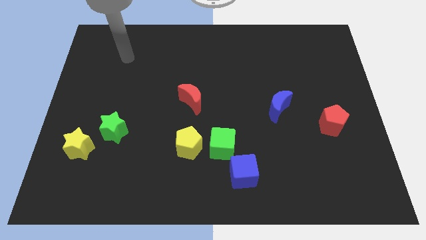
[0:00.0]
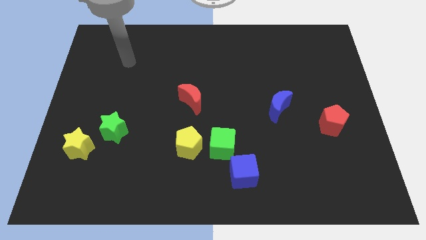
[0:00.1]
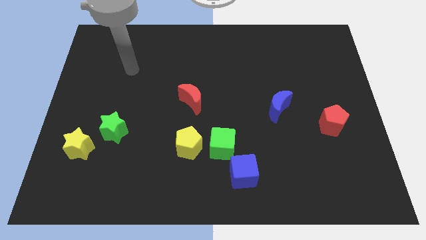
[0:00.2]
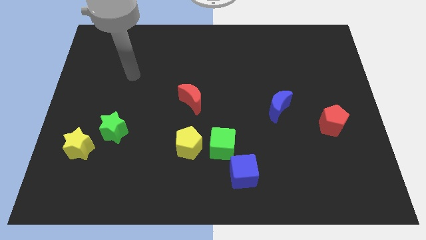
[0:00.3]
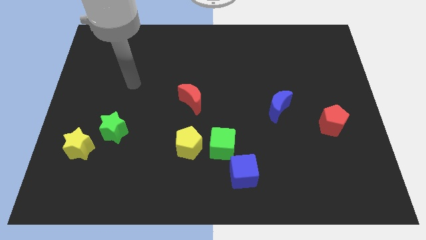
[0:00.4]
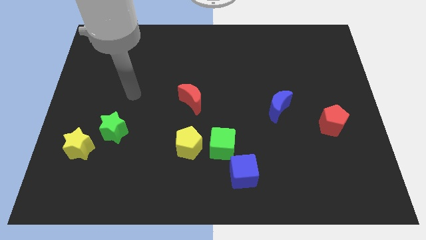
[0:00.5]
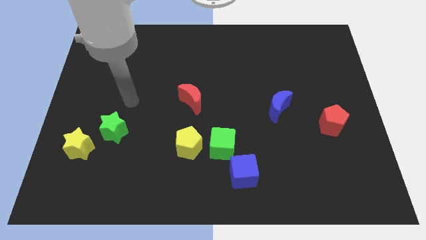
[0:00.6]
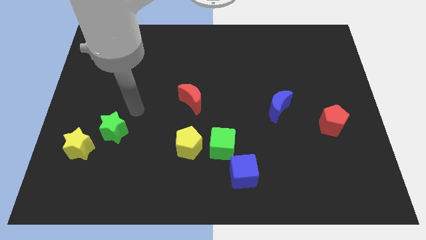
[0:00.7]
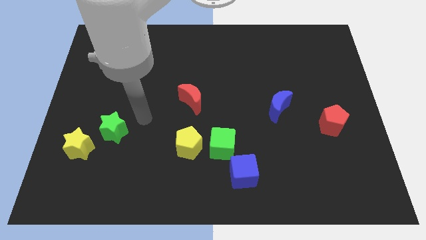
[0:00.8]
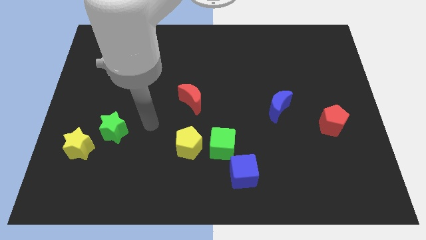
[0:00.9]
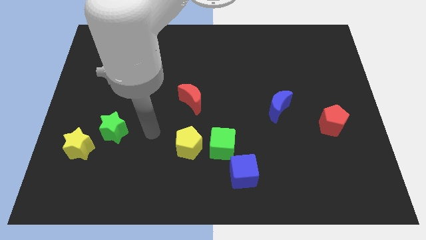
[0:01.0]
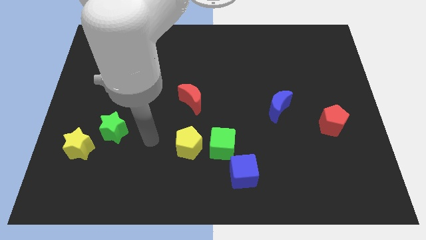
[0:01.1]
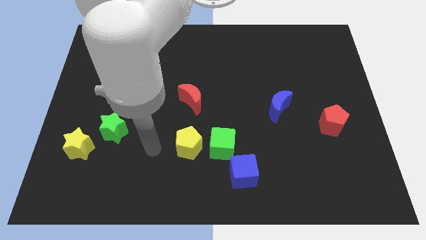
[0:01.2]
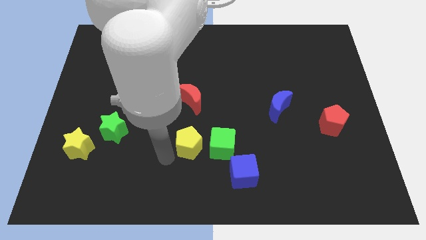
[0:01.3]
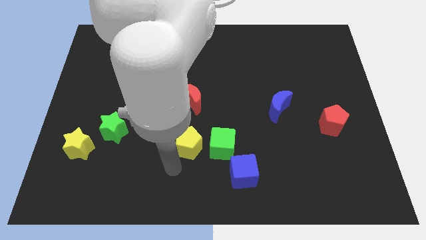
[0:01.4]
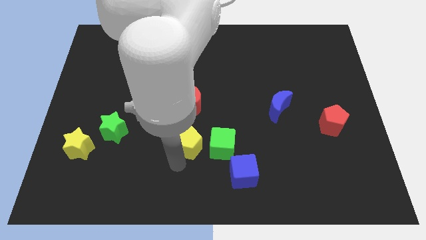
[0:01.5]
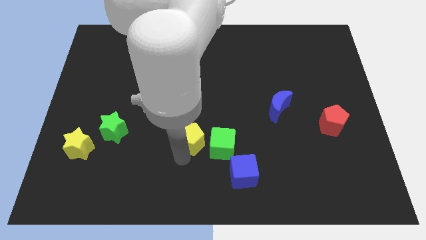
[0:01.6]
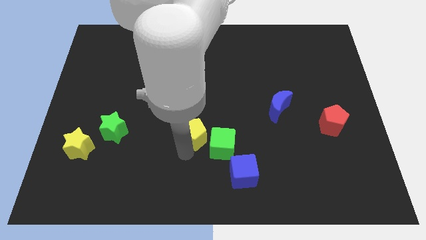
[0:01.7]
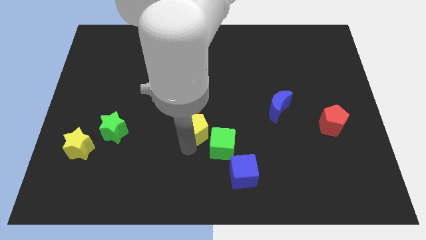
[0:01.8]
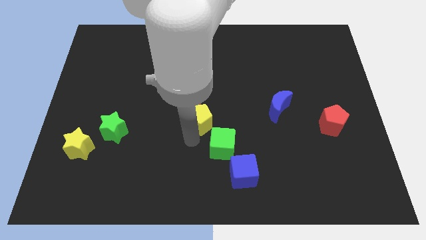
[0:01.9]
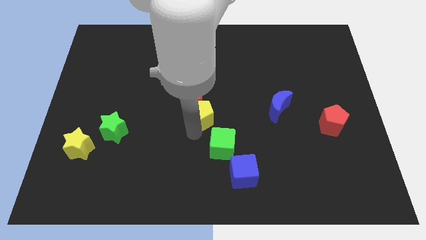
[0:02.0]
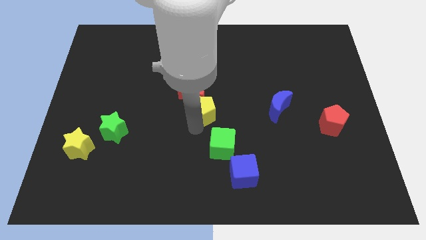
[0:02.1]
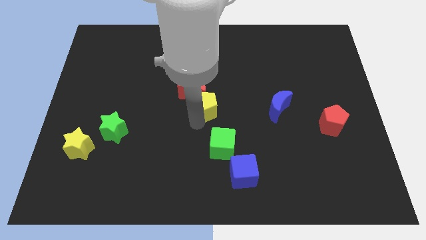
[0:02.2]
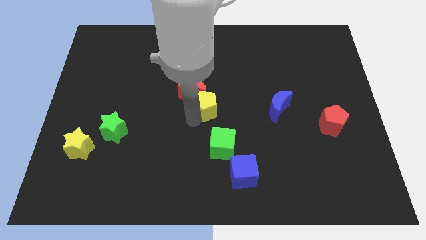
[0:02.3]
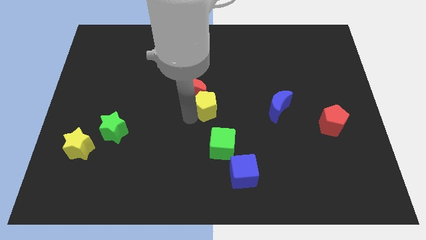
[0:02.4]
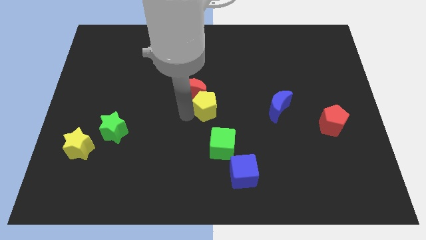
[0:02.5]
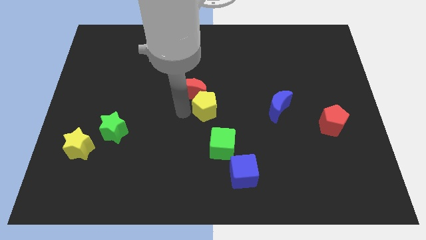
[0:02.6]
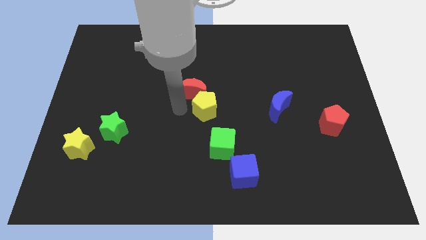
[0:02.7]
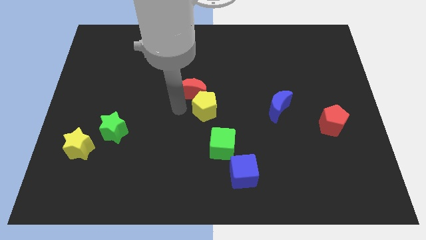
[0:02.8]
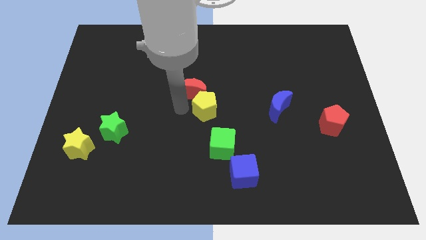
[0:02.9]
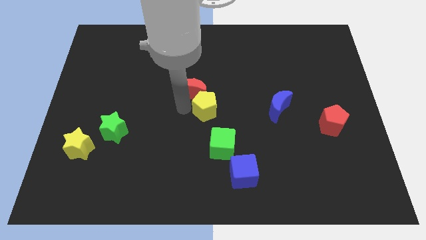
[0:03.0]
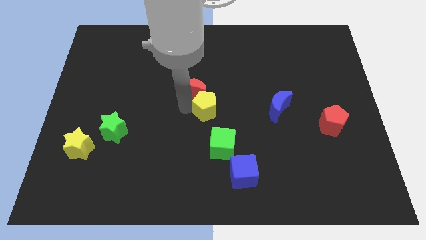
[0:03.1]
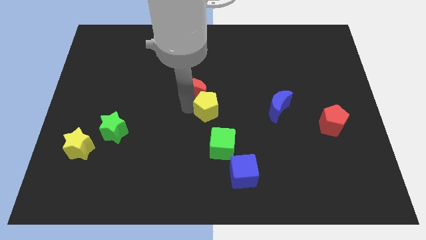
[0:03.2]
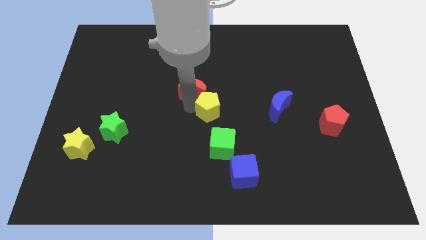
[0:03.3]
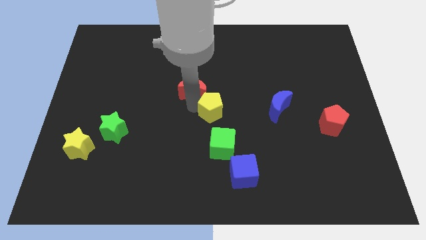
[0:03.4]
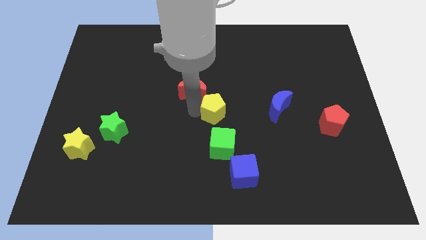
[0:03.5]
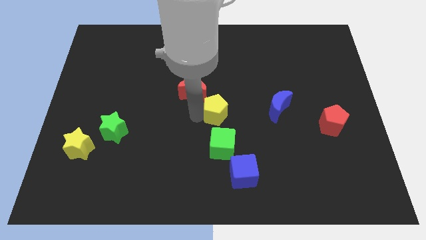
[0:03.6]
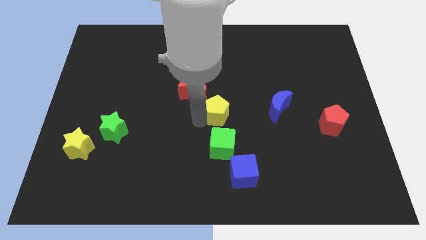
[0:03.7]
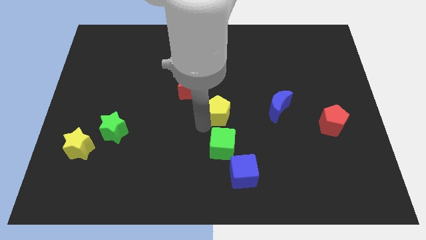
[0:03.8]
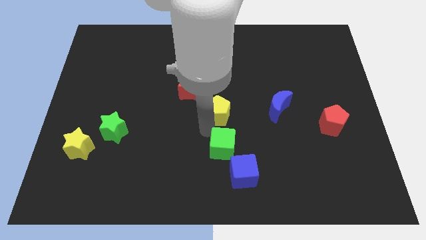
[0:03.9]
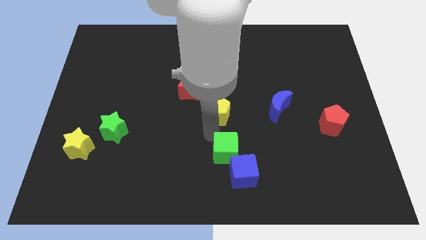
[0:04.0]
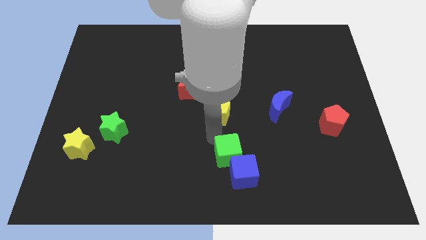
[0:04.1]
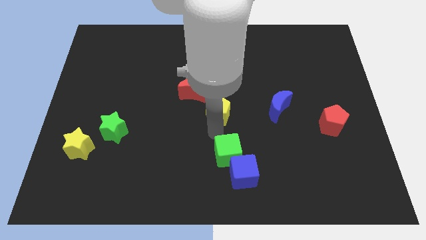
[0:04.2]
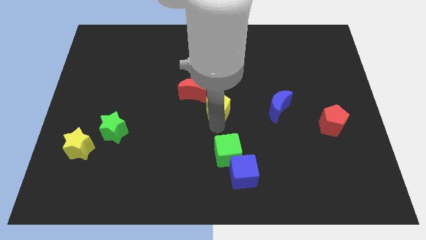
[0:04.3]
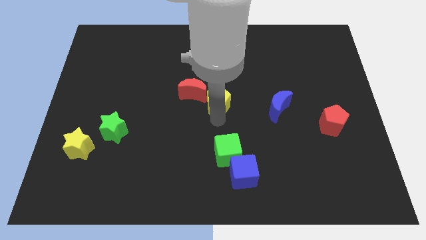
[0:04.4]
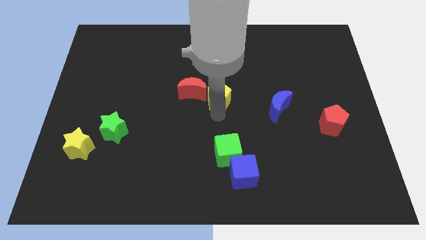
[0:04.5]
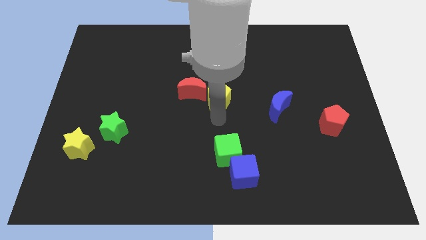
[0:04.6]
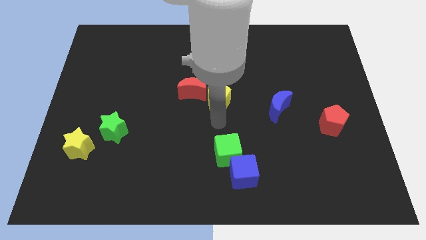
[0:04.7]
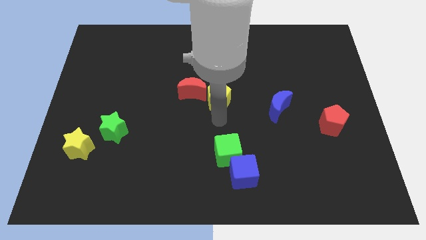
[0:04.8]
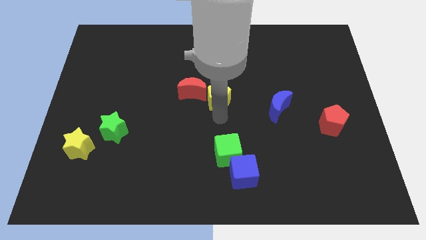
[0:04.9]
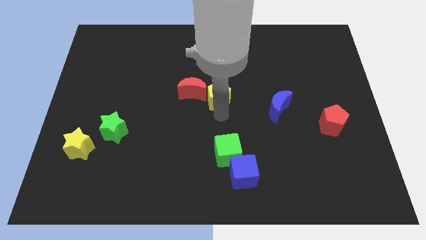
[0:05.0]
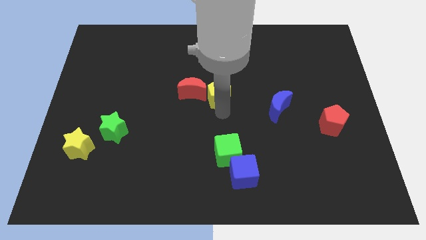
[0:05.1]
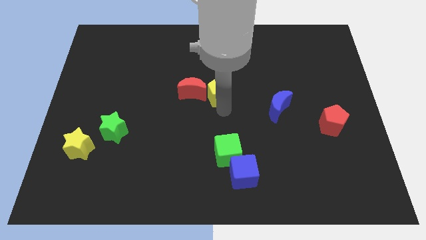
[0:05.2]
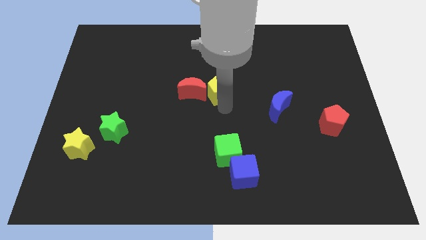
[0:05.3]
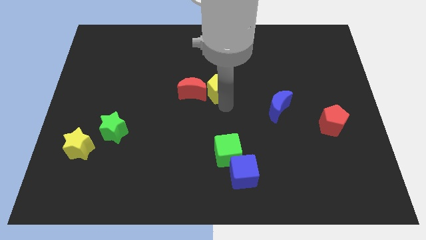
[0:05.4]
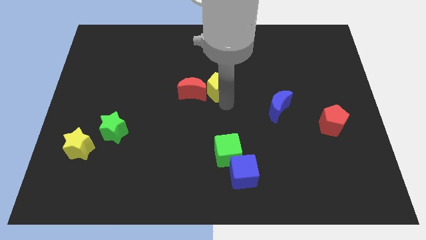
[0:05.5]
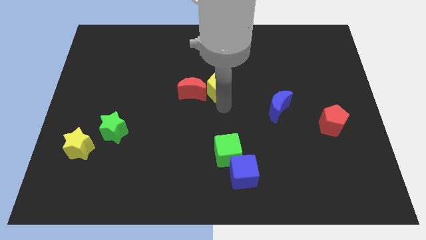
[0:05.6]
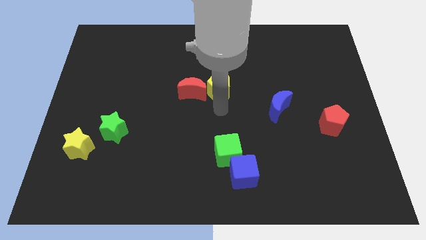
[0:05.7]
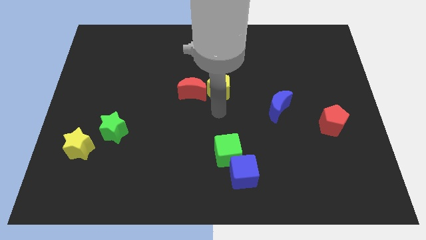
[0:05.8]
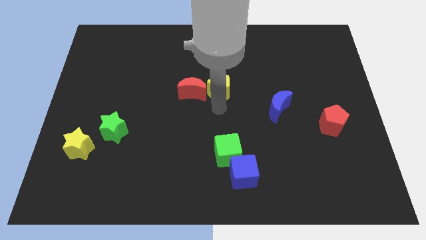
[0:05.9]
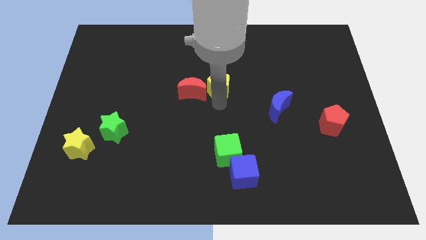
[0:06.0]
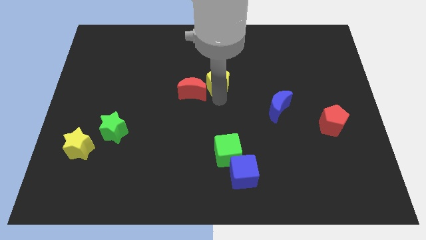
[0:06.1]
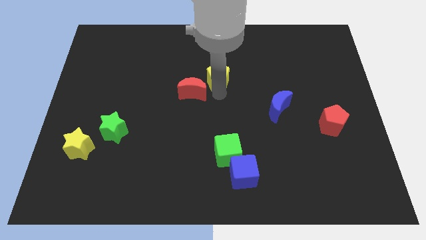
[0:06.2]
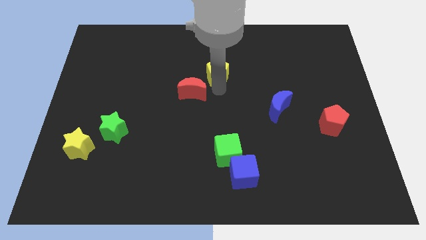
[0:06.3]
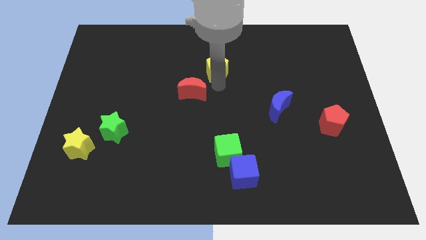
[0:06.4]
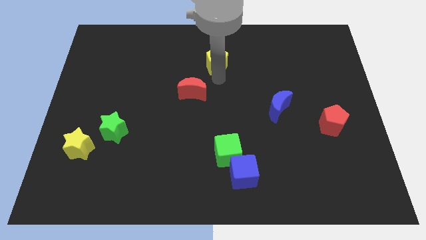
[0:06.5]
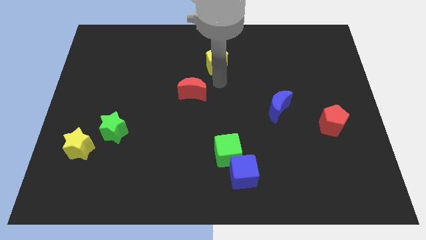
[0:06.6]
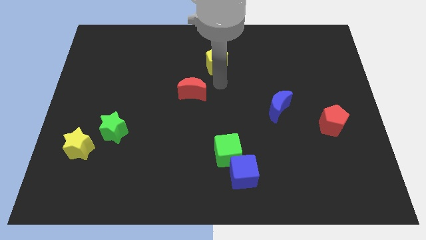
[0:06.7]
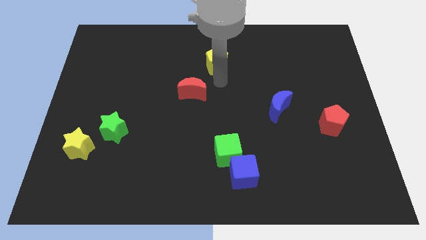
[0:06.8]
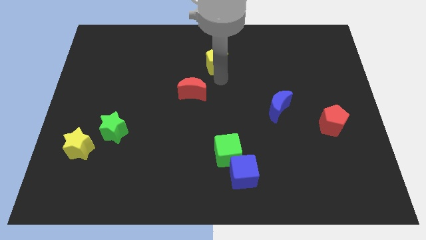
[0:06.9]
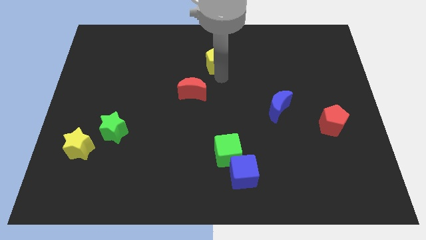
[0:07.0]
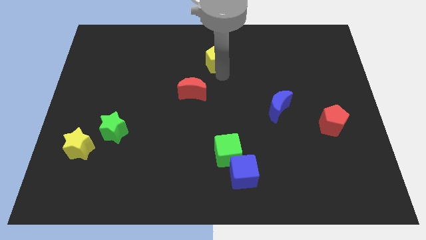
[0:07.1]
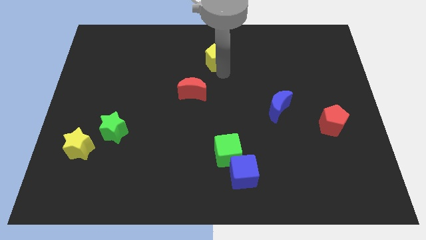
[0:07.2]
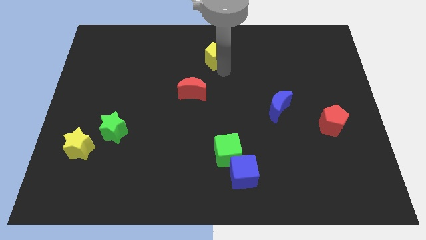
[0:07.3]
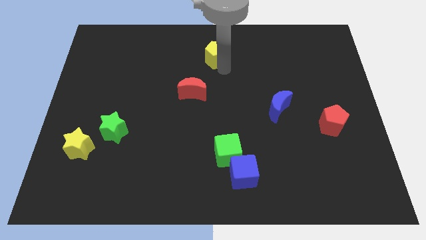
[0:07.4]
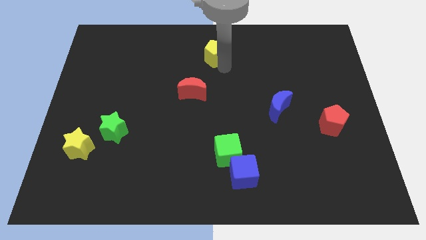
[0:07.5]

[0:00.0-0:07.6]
push the yellow pentagon to the top
